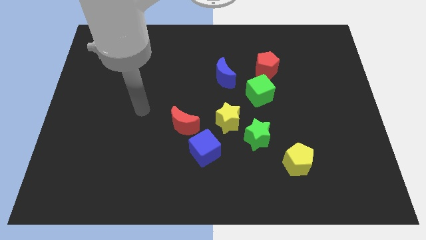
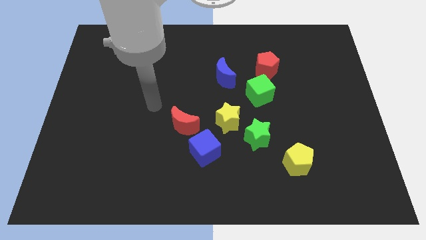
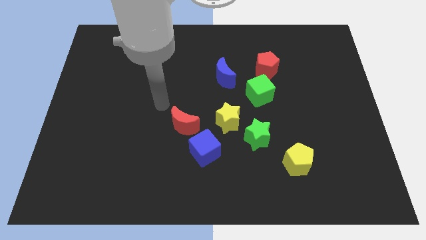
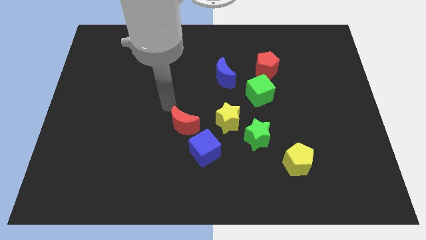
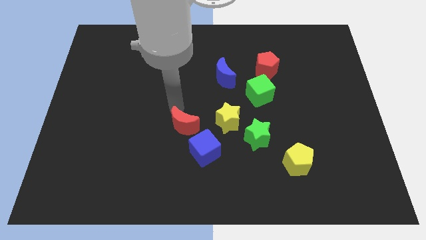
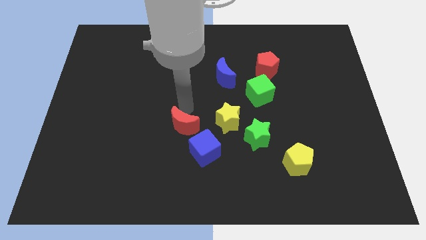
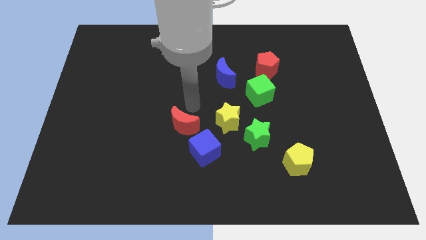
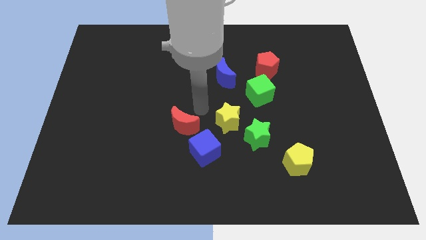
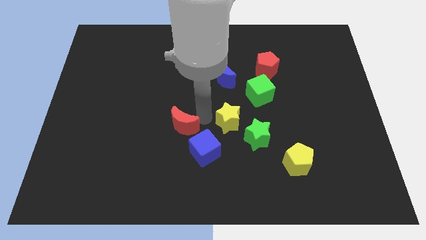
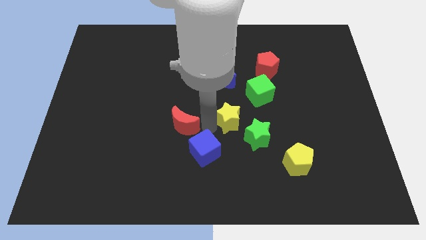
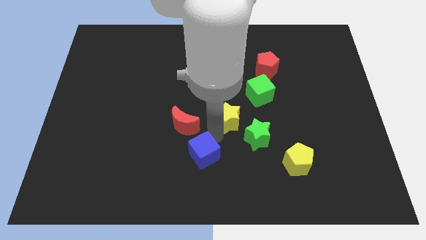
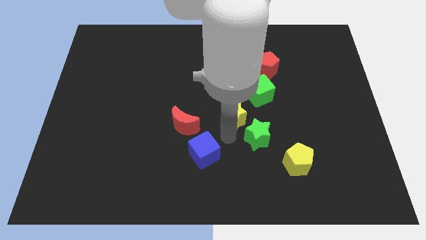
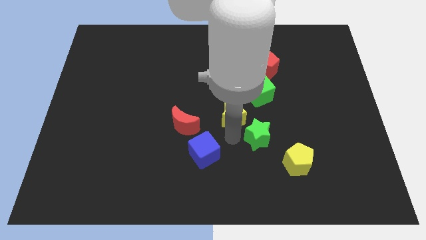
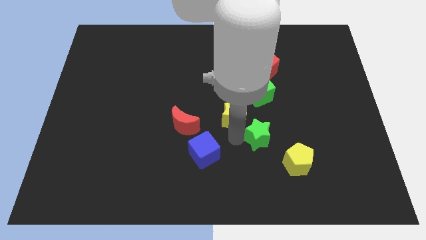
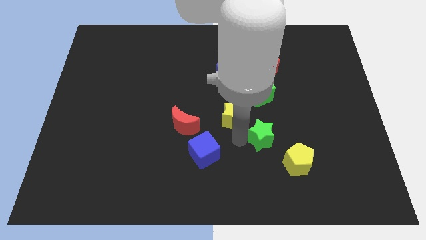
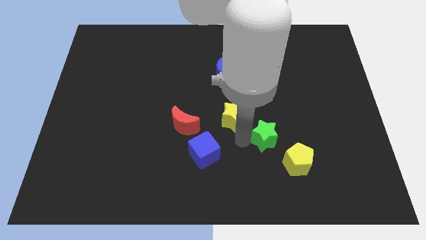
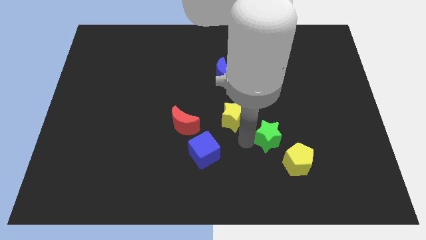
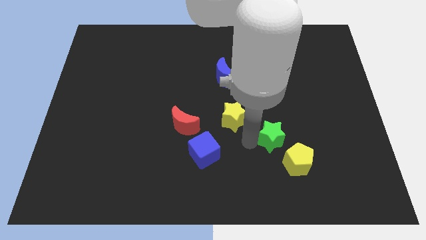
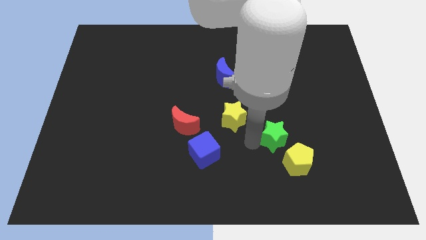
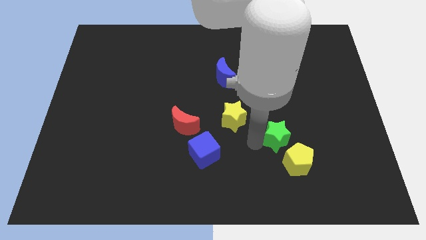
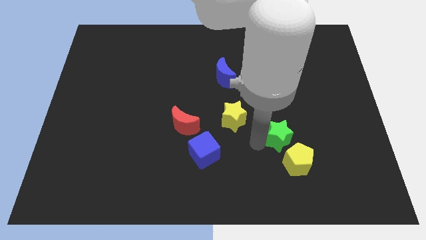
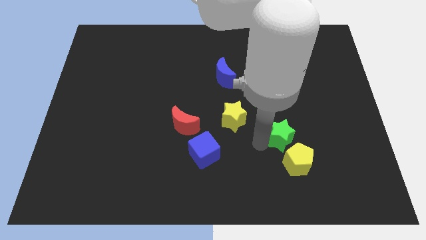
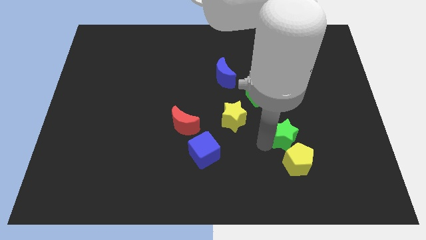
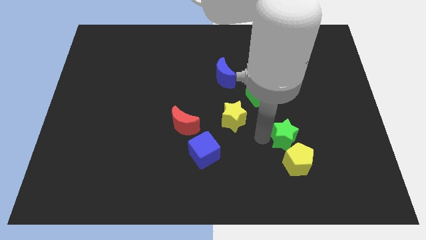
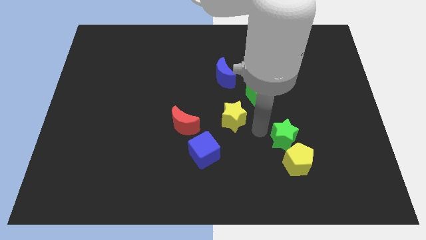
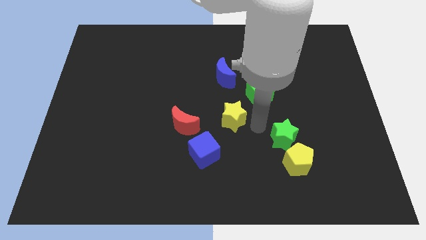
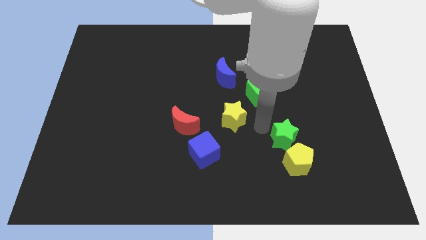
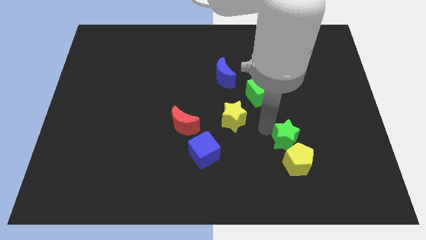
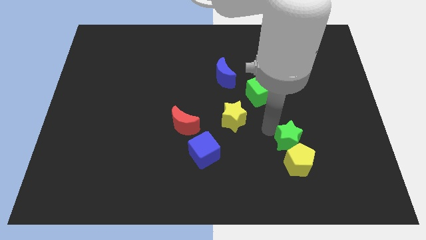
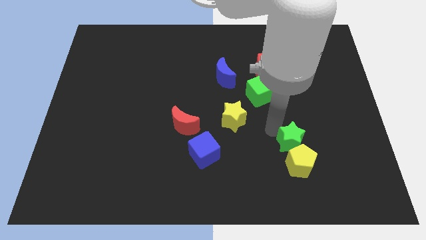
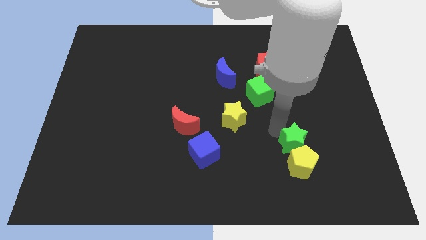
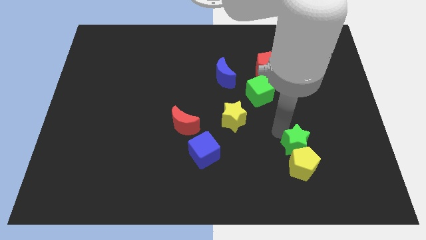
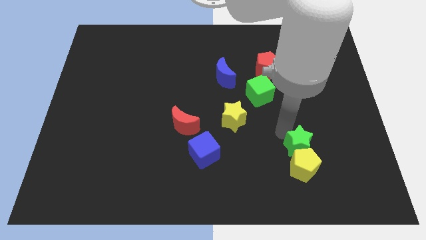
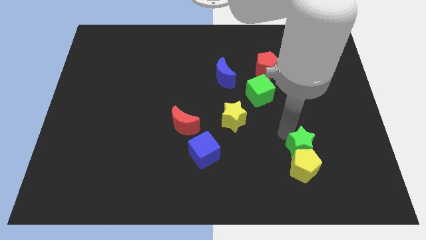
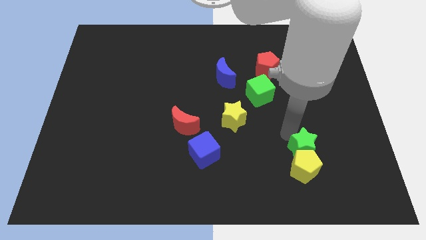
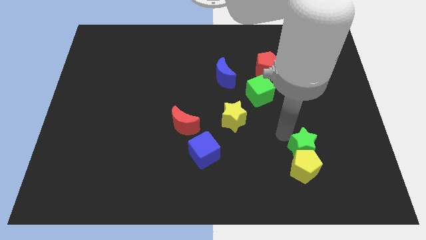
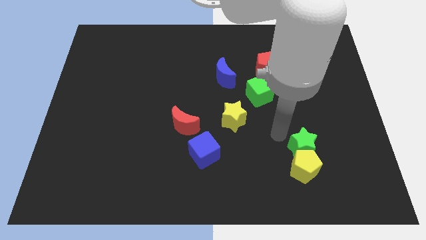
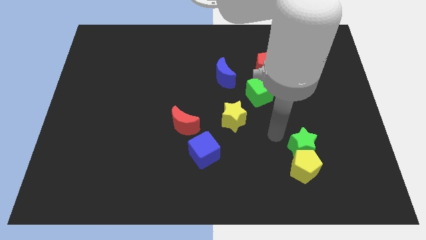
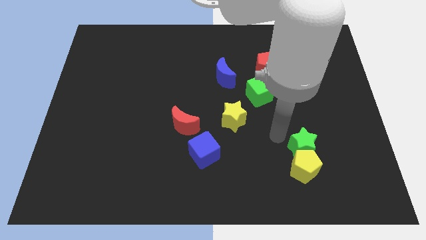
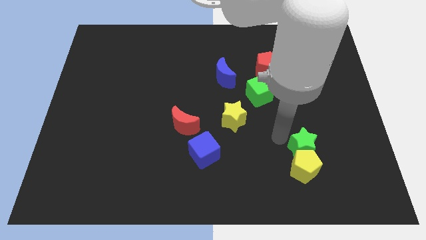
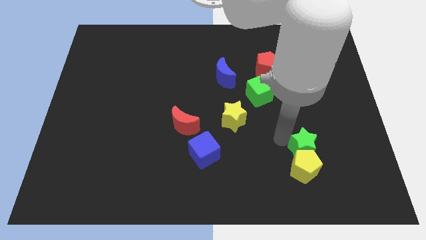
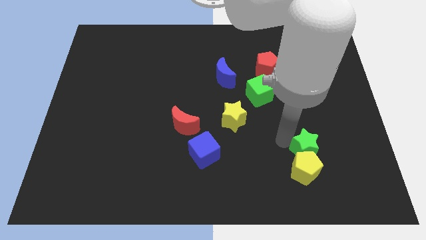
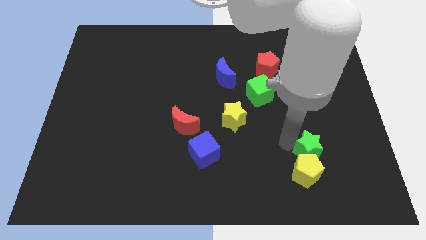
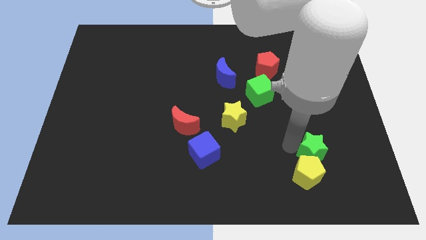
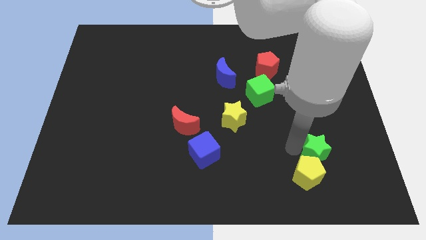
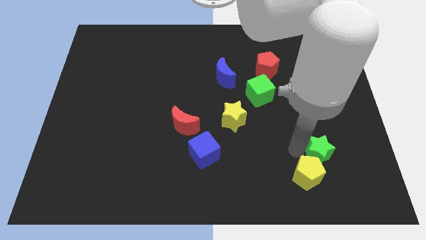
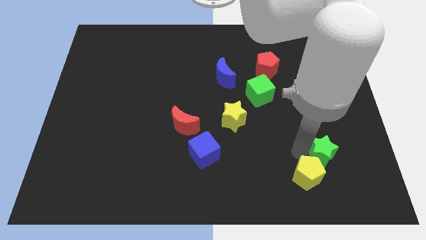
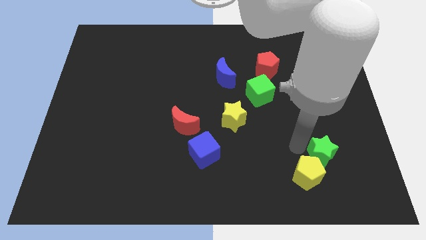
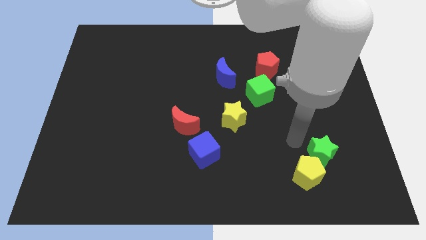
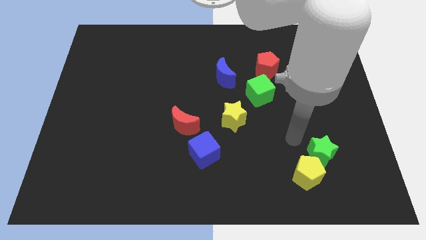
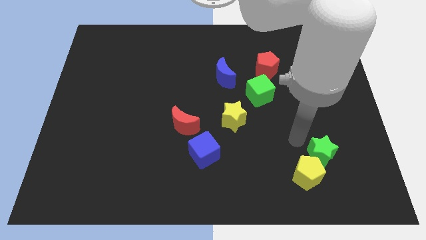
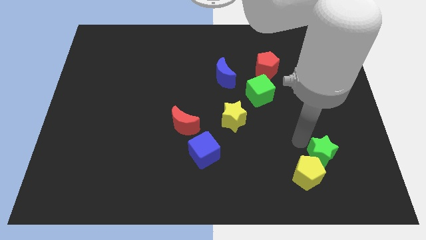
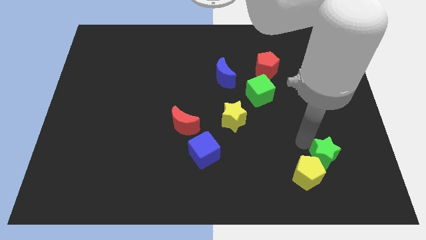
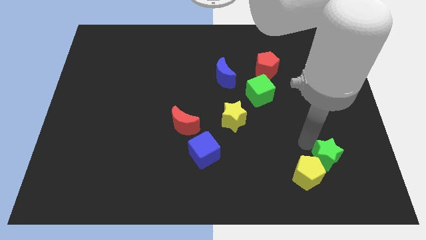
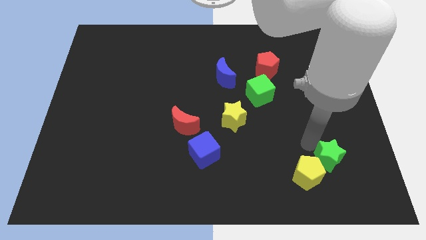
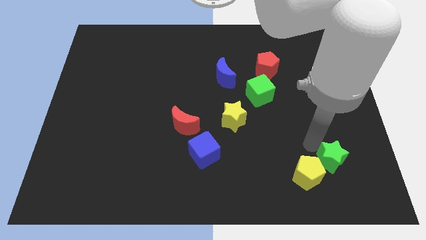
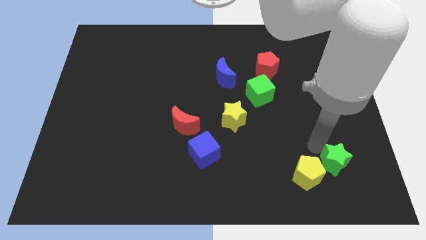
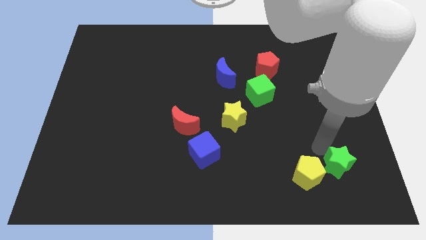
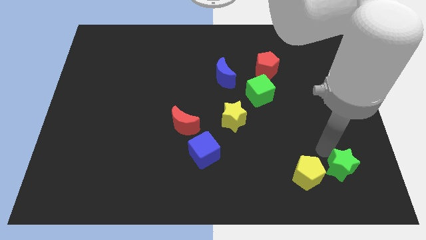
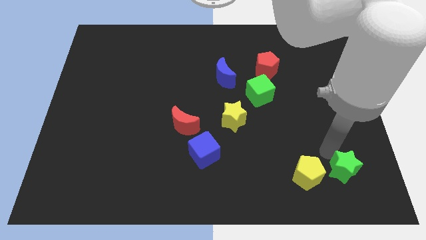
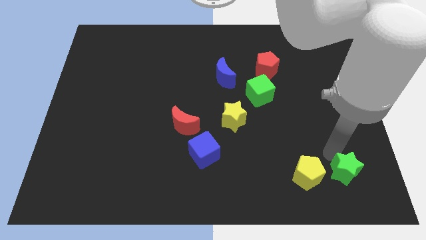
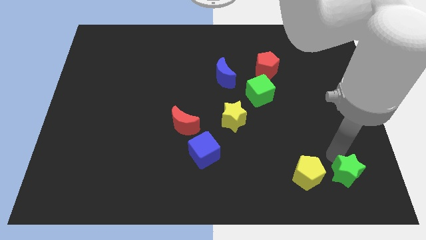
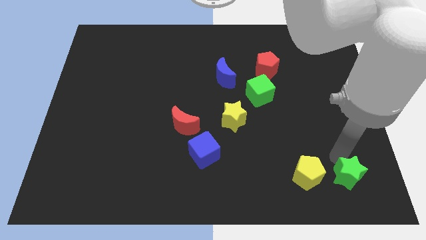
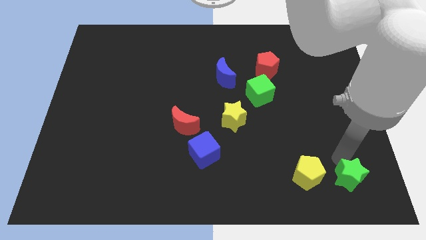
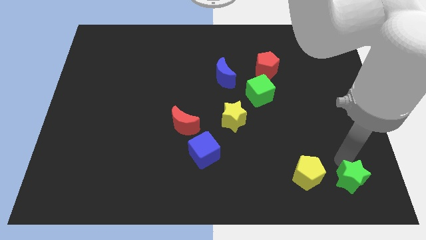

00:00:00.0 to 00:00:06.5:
push the green star to the bottom right corner
